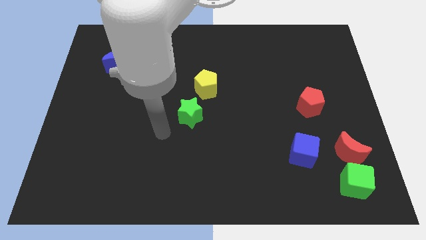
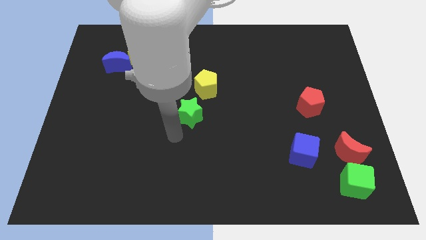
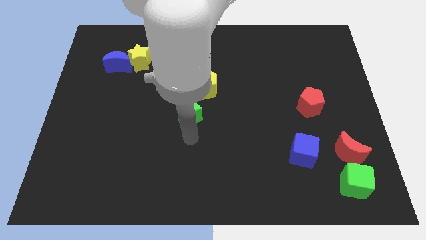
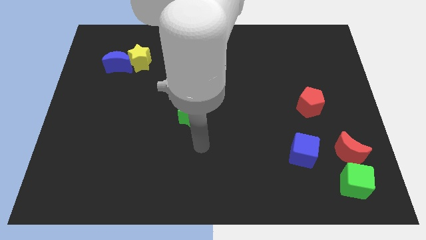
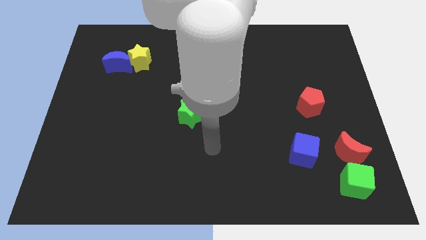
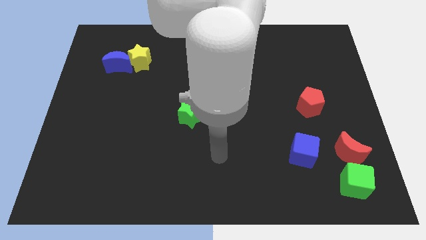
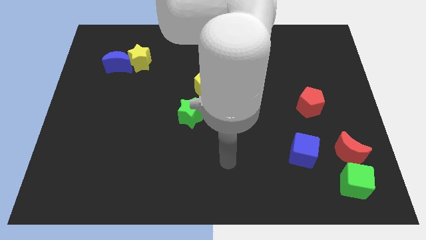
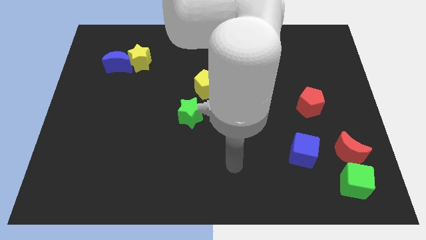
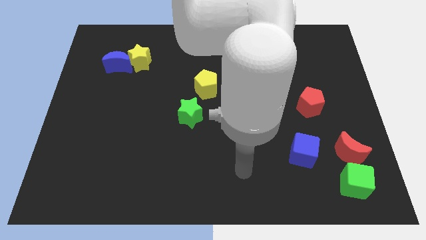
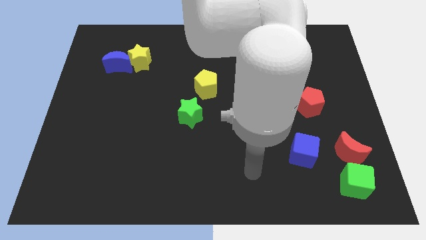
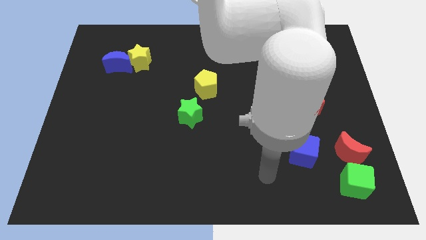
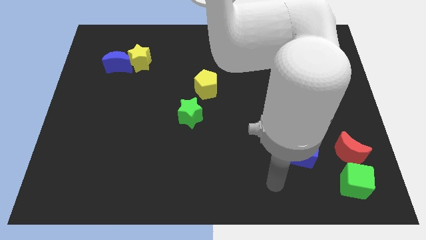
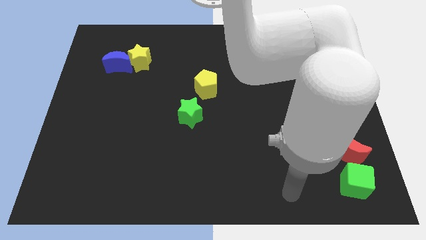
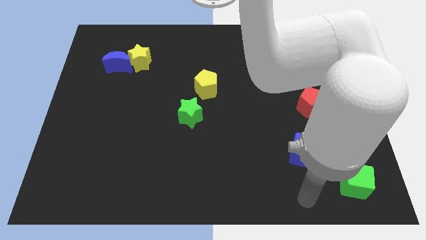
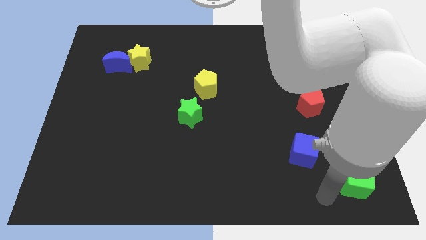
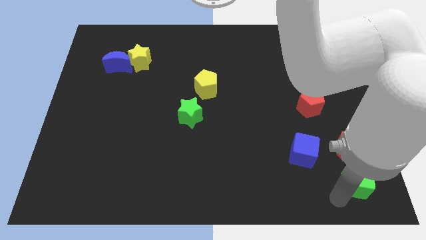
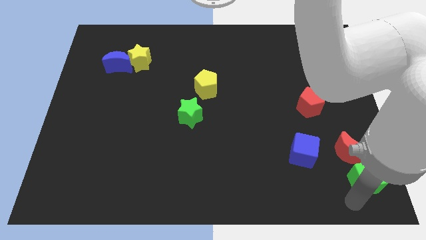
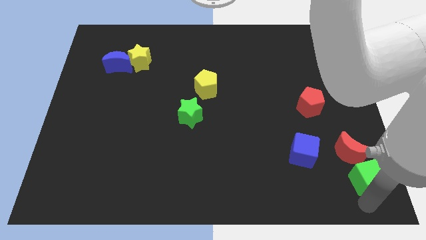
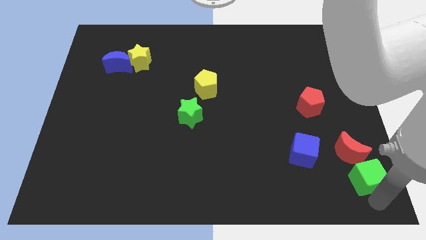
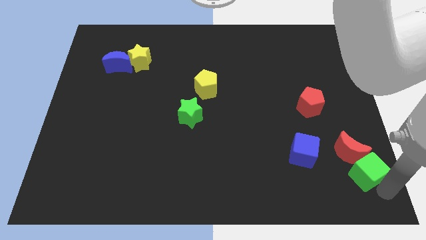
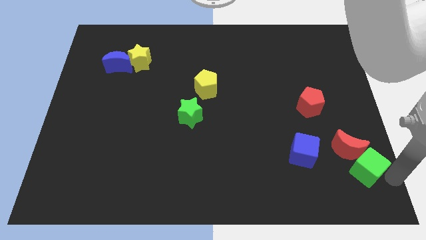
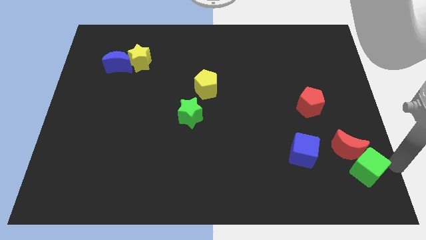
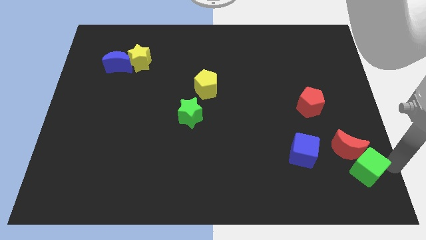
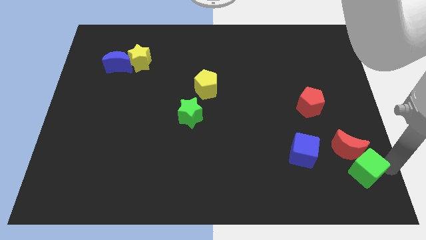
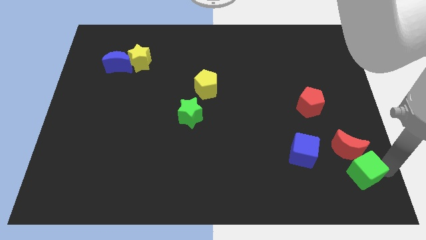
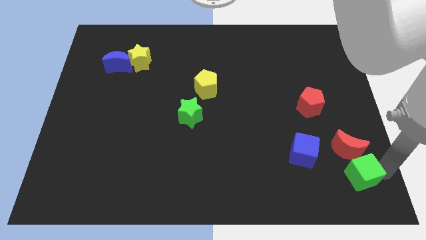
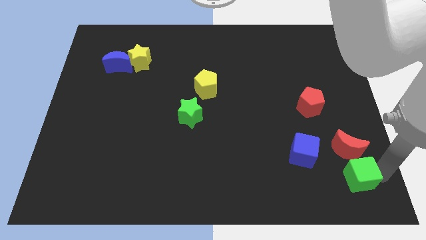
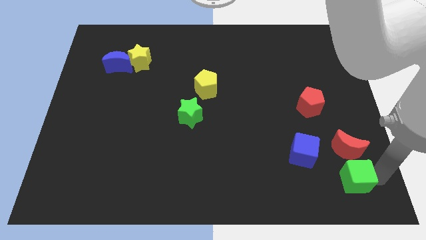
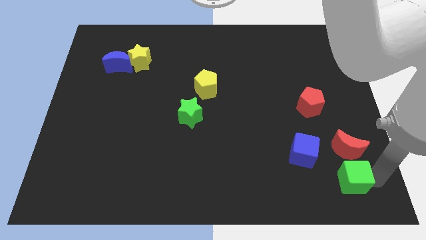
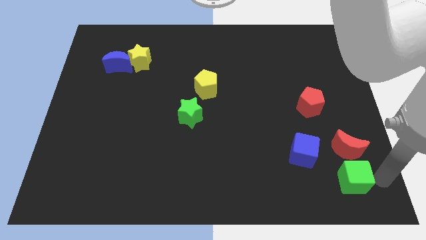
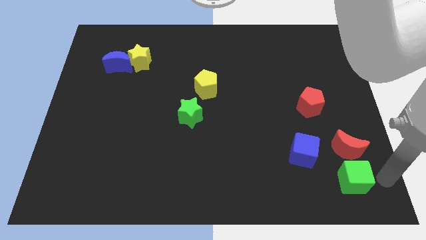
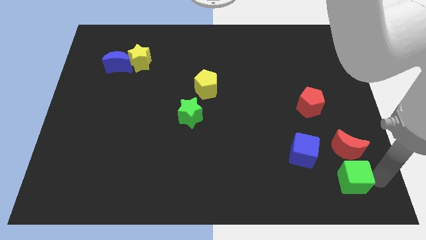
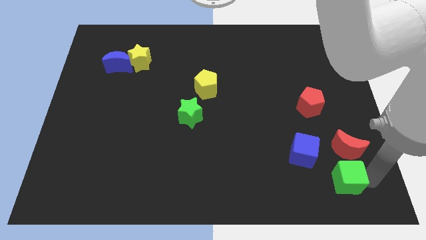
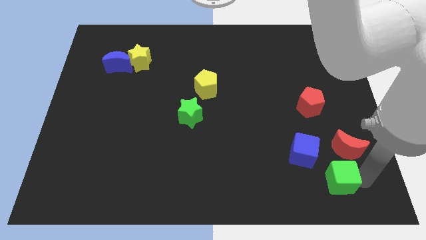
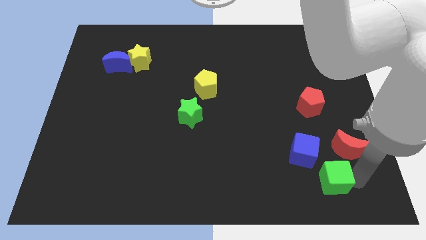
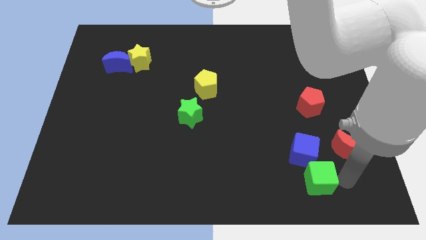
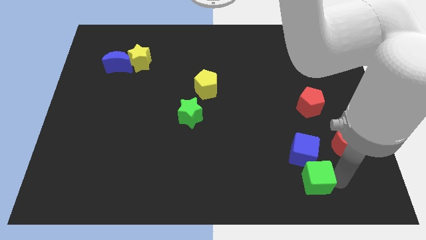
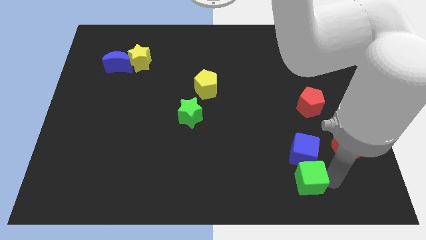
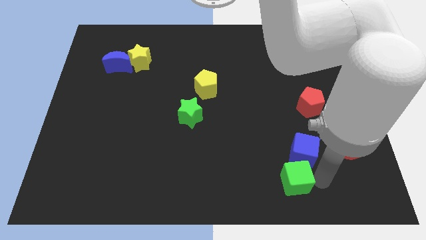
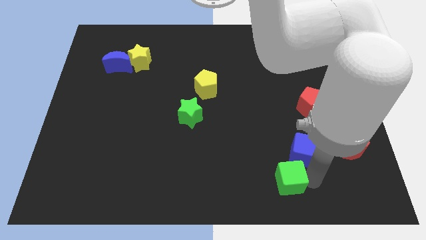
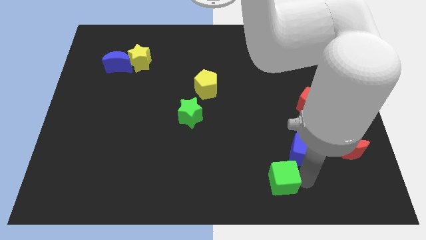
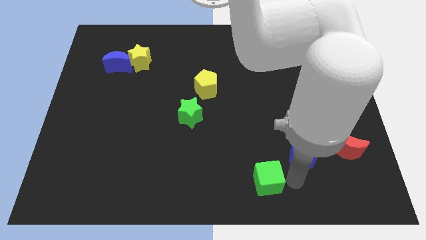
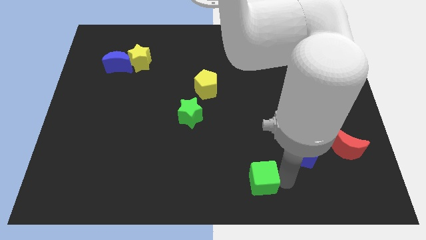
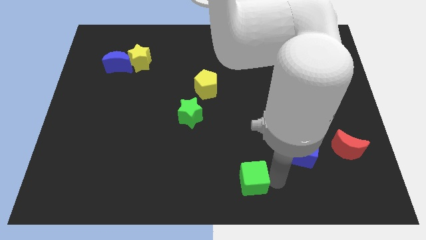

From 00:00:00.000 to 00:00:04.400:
push the green cube to the left

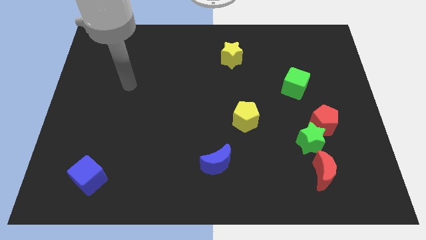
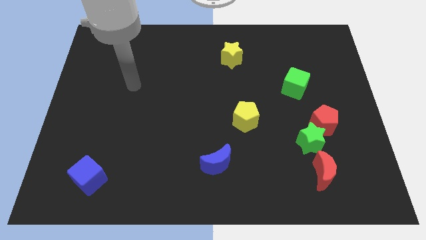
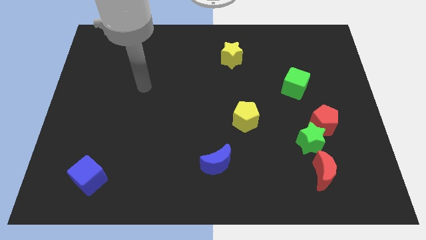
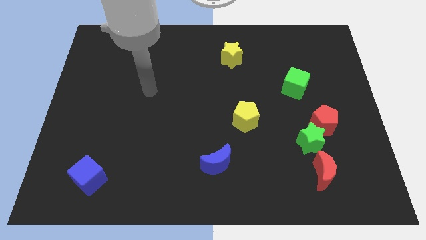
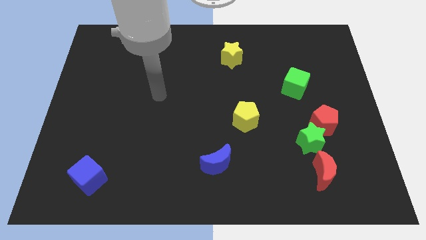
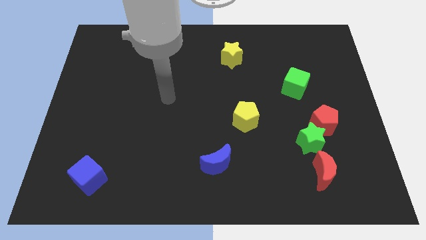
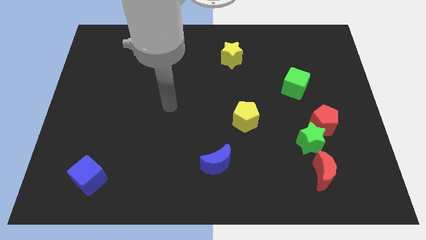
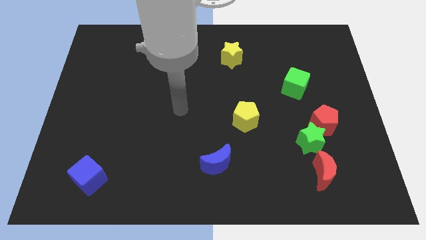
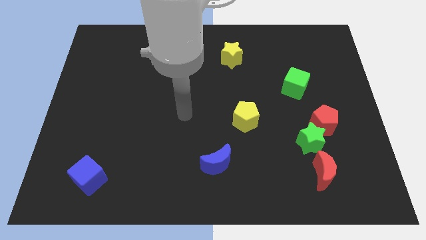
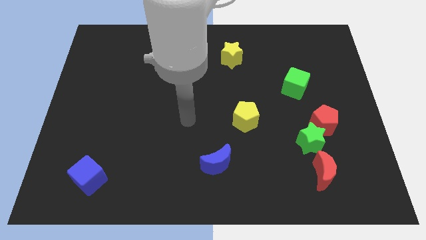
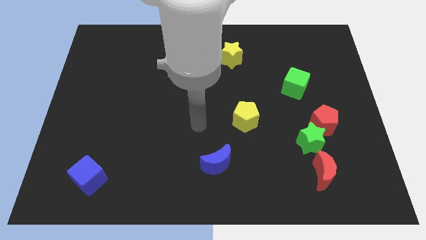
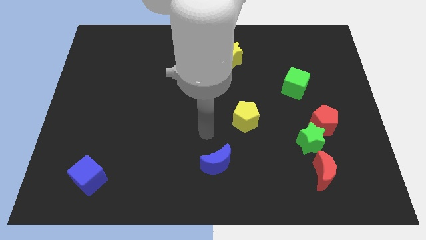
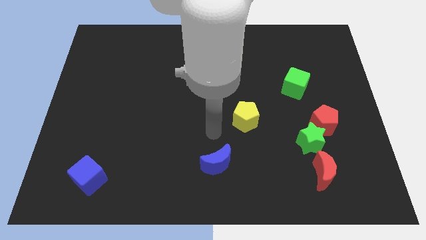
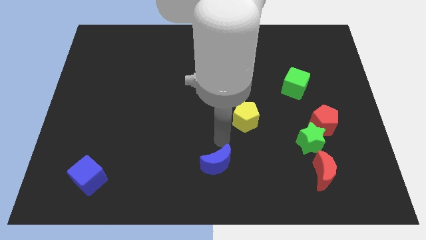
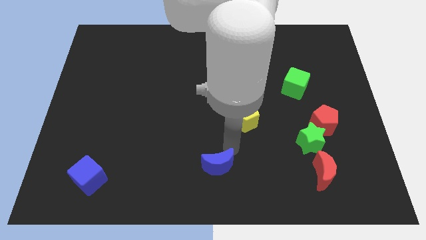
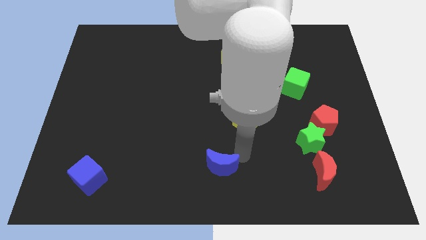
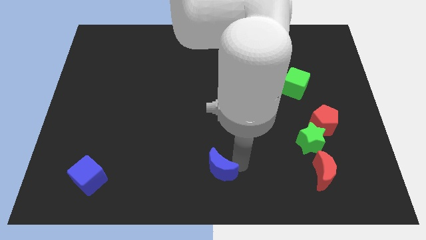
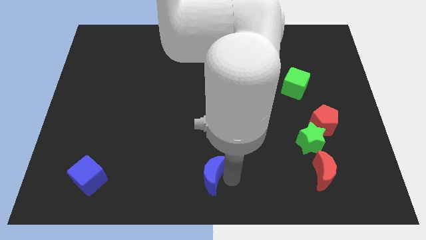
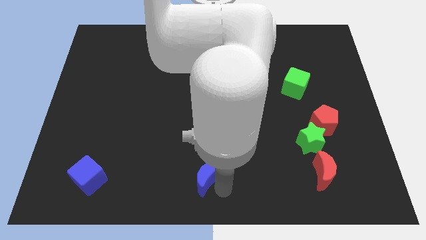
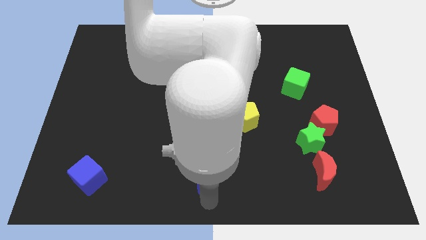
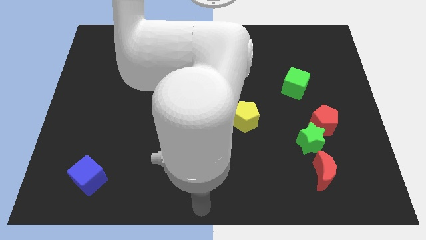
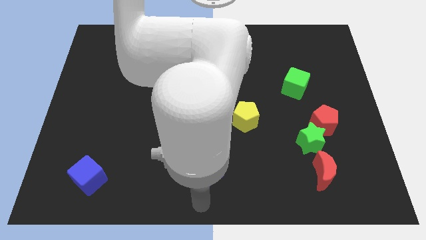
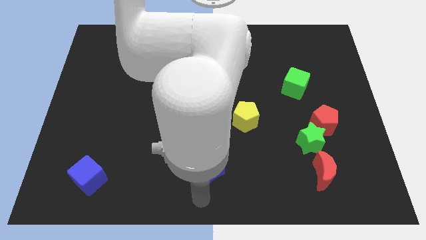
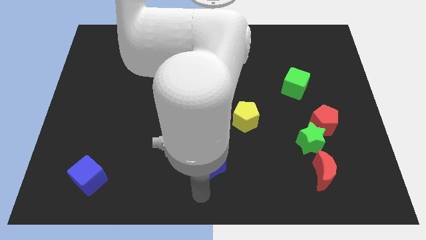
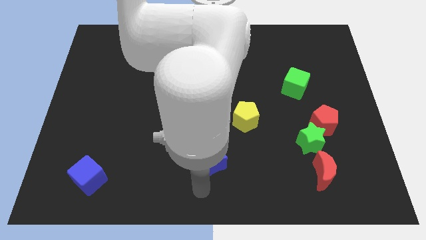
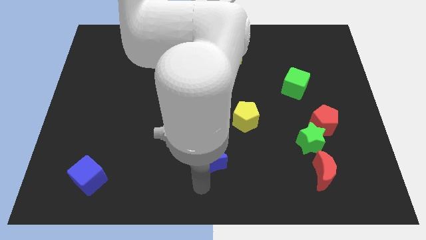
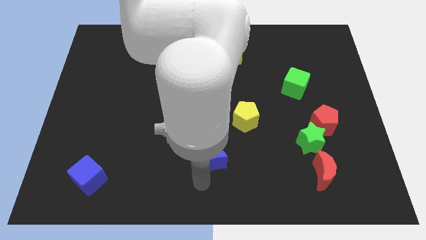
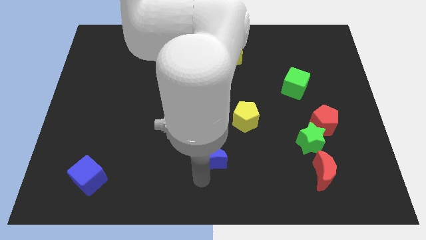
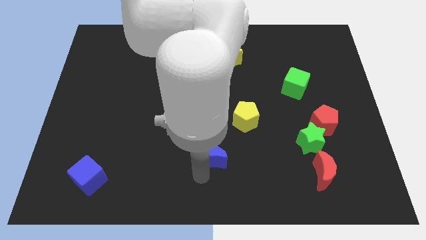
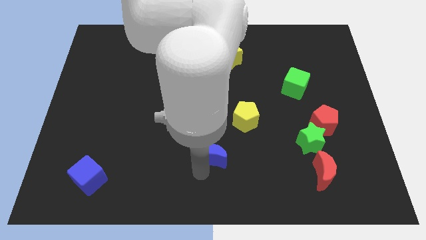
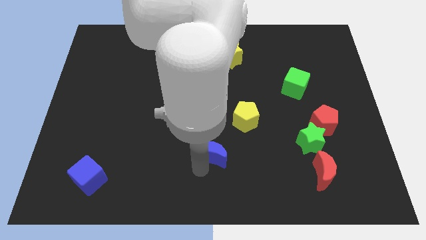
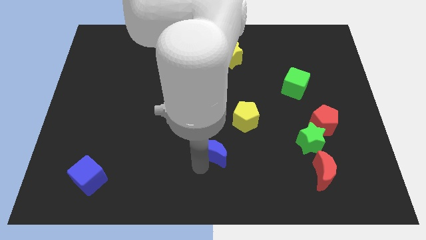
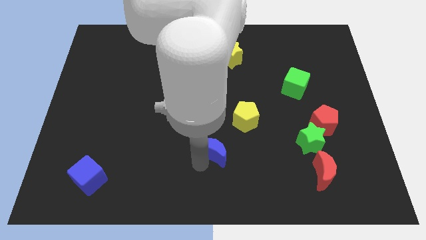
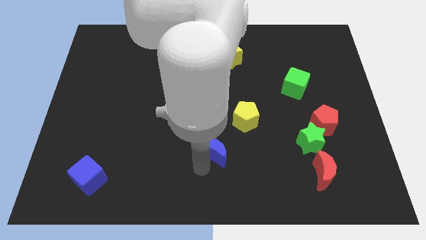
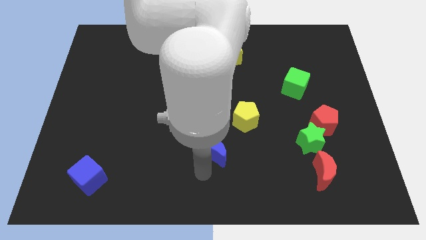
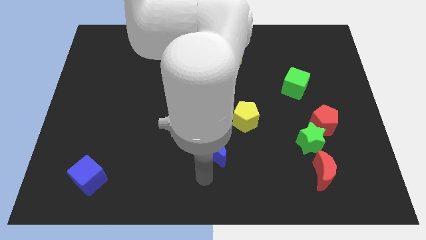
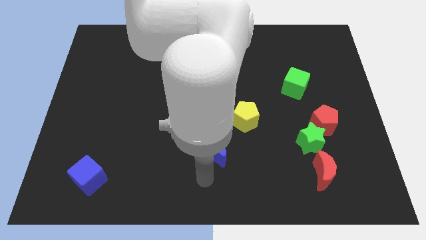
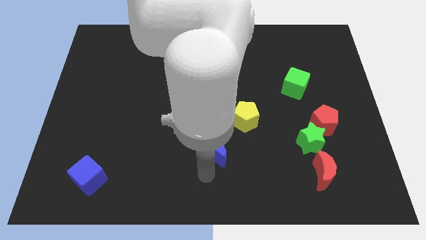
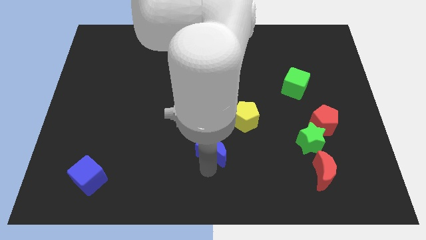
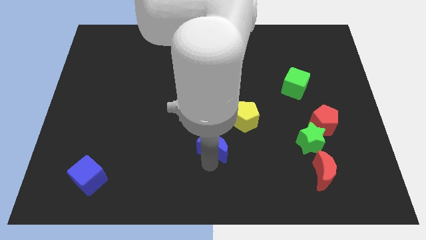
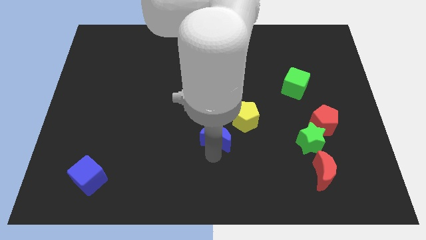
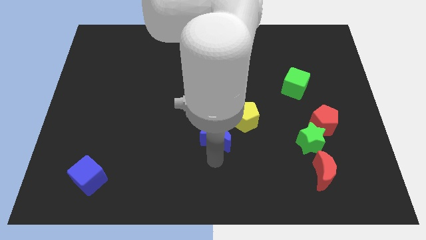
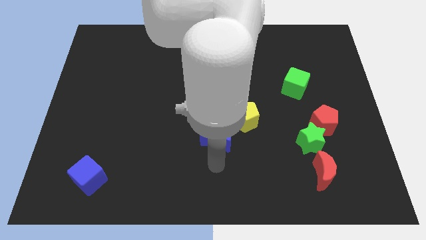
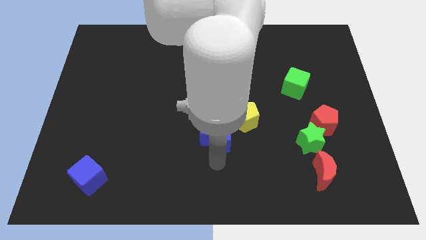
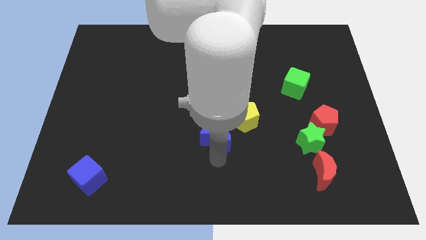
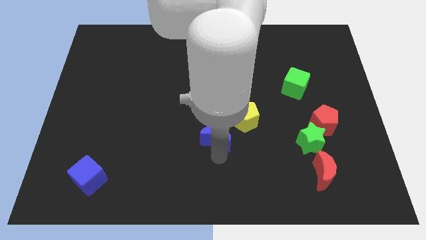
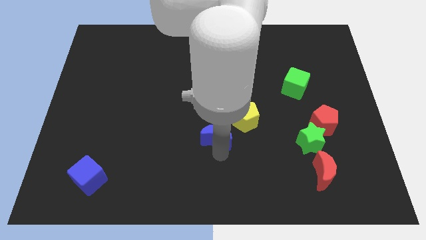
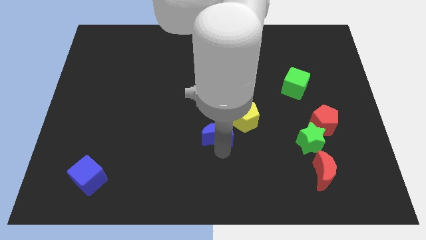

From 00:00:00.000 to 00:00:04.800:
slightly move the blue moon upwards
